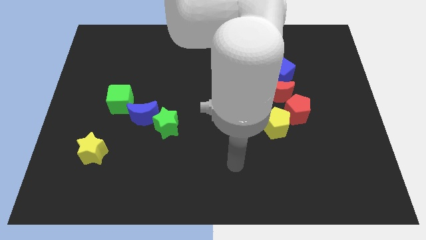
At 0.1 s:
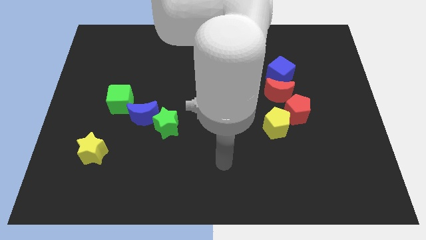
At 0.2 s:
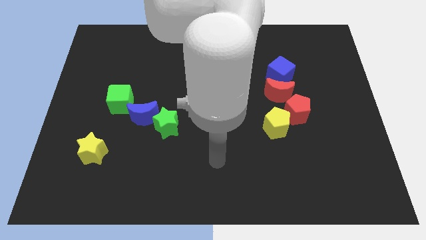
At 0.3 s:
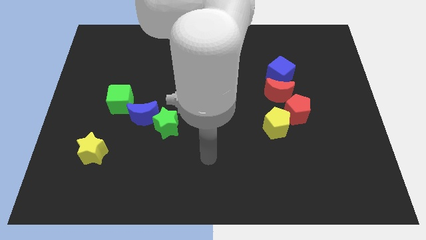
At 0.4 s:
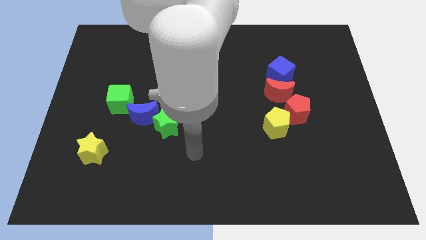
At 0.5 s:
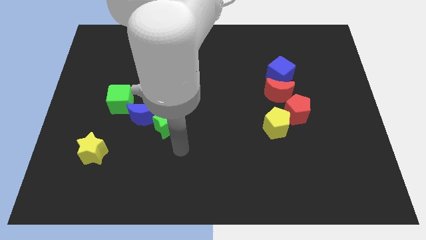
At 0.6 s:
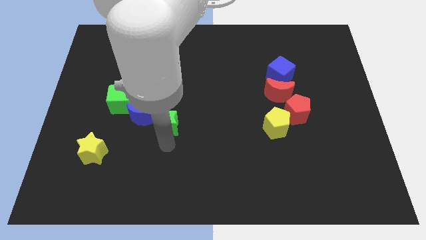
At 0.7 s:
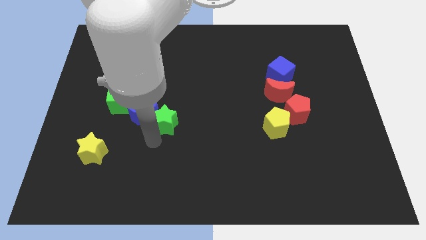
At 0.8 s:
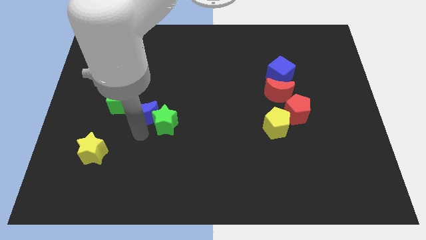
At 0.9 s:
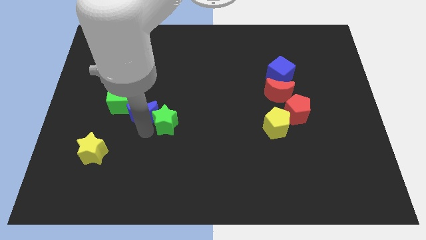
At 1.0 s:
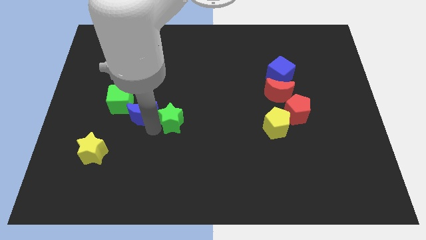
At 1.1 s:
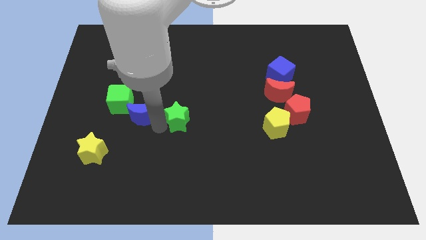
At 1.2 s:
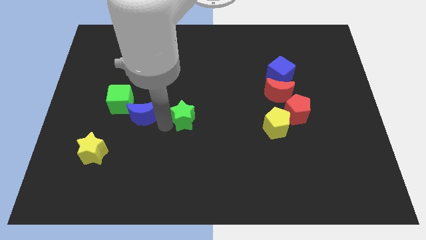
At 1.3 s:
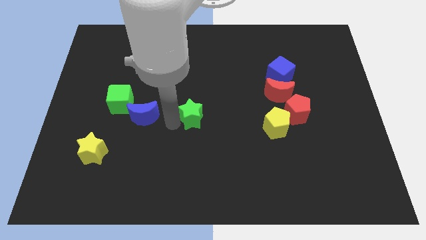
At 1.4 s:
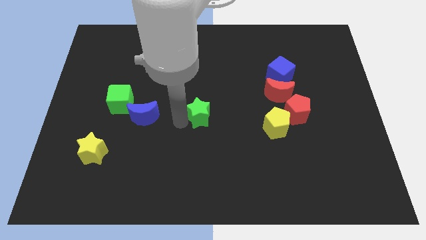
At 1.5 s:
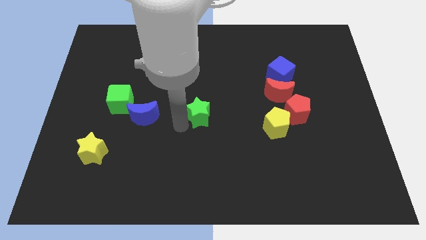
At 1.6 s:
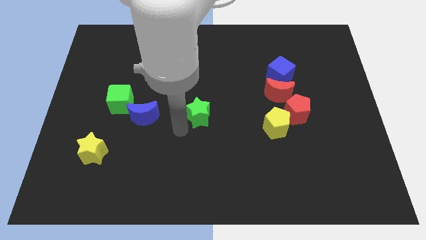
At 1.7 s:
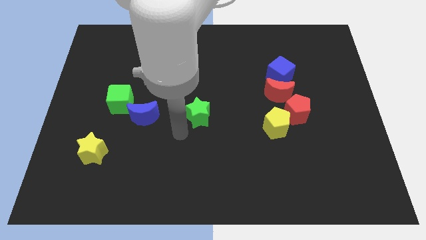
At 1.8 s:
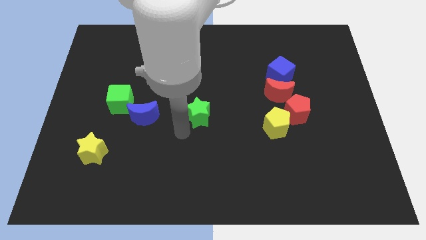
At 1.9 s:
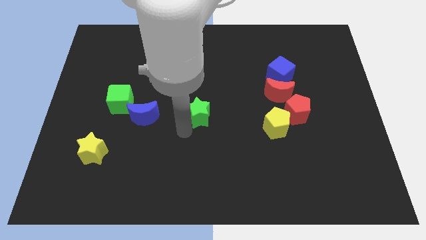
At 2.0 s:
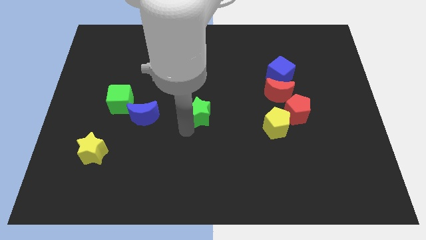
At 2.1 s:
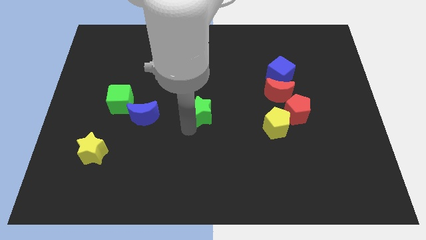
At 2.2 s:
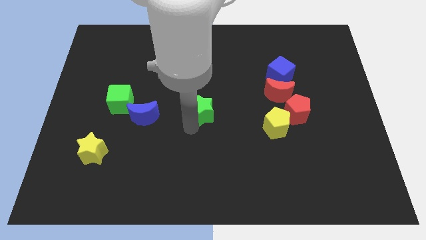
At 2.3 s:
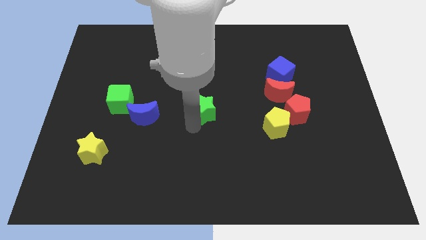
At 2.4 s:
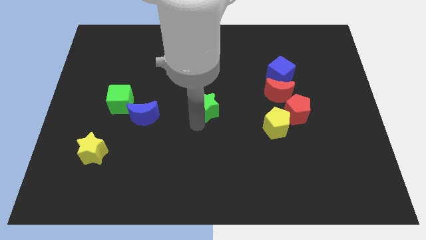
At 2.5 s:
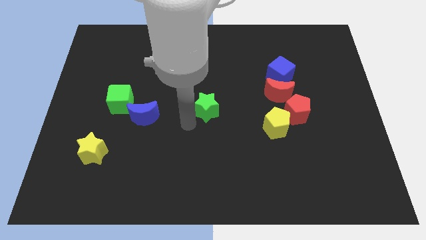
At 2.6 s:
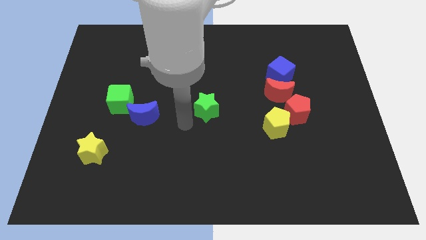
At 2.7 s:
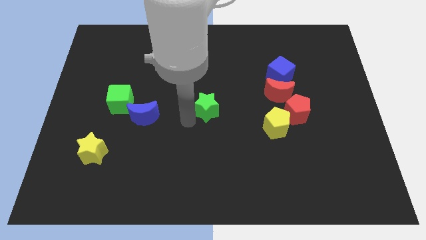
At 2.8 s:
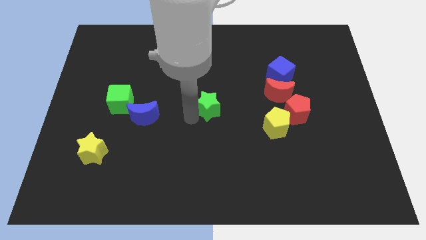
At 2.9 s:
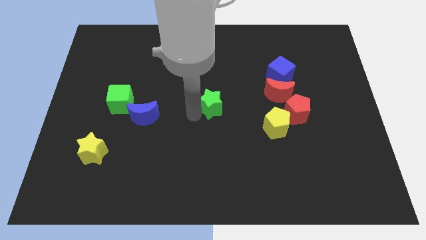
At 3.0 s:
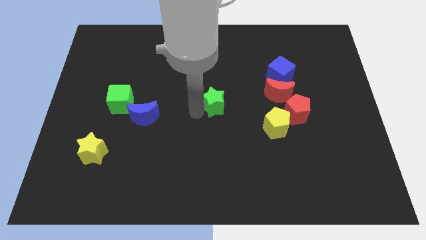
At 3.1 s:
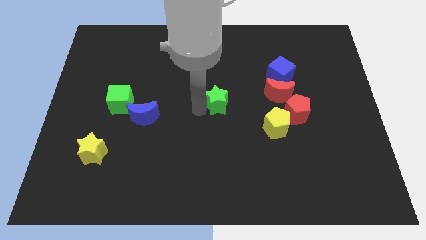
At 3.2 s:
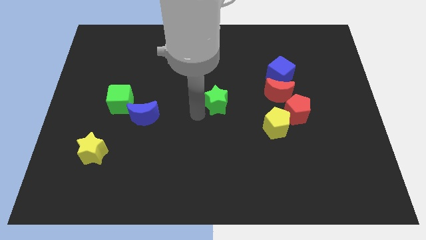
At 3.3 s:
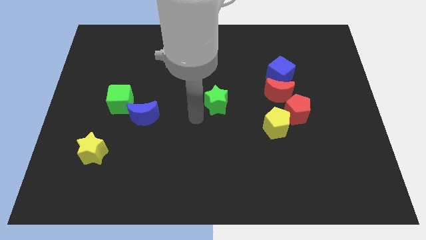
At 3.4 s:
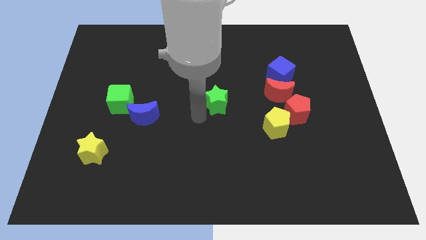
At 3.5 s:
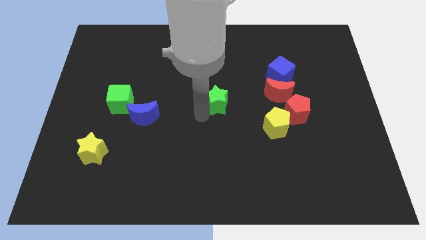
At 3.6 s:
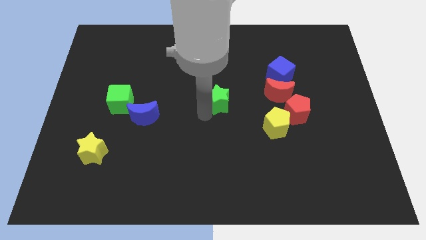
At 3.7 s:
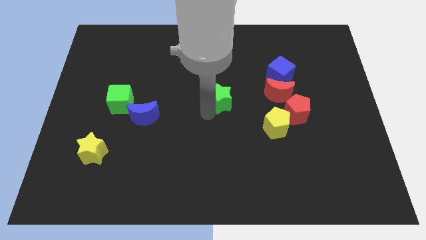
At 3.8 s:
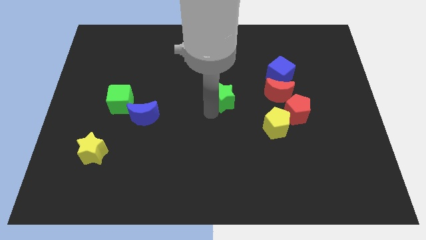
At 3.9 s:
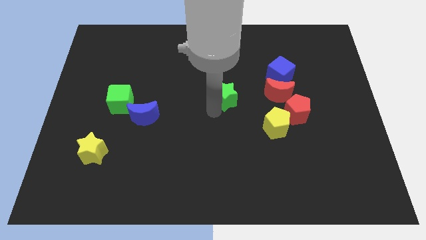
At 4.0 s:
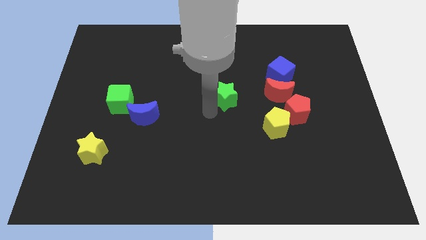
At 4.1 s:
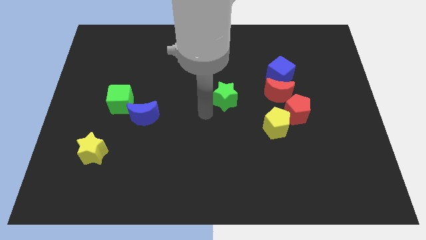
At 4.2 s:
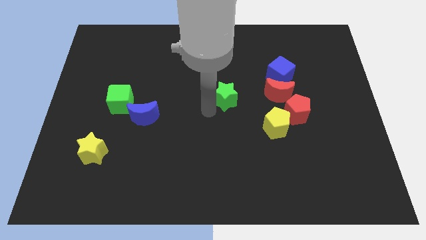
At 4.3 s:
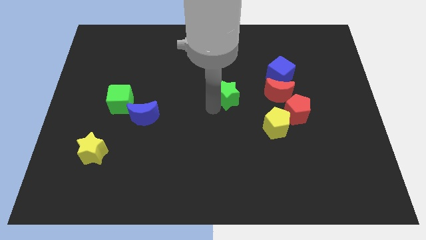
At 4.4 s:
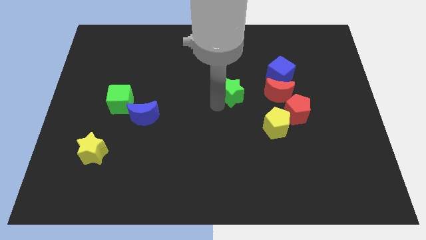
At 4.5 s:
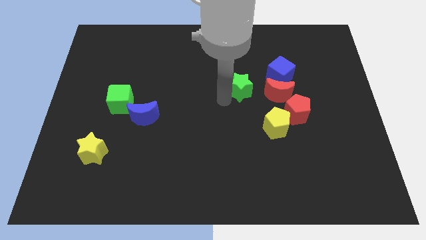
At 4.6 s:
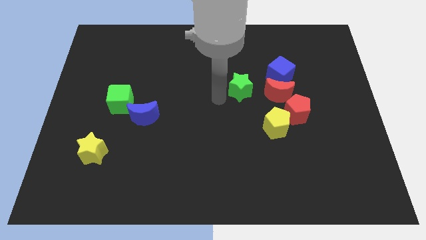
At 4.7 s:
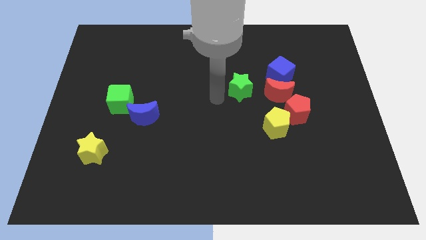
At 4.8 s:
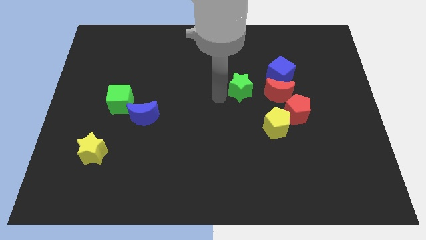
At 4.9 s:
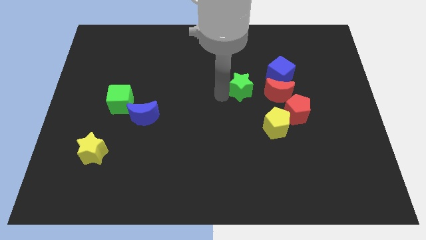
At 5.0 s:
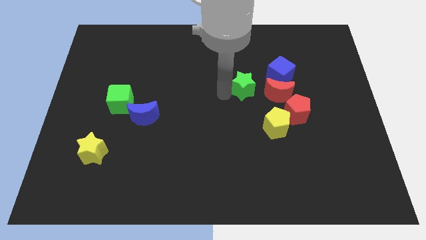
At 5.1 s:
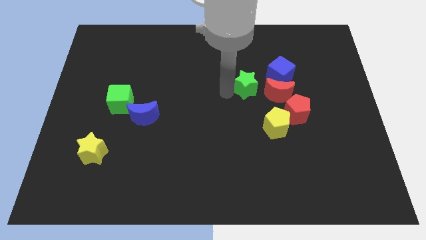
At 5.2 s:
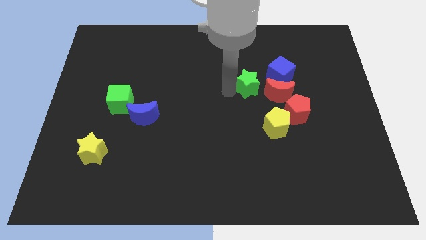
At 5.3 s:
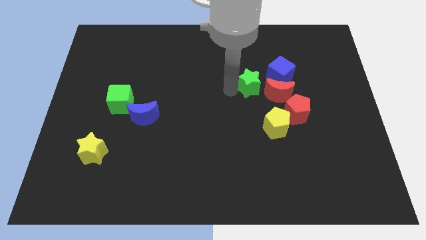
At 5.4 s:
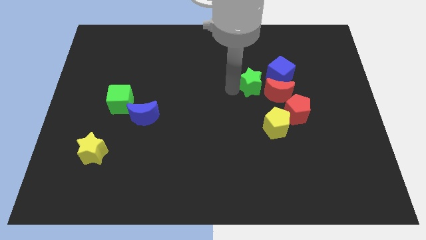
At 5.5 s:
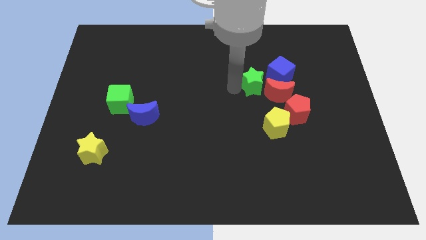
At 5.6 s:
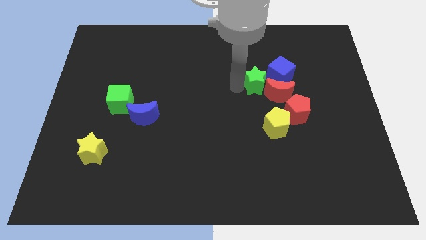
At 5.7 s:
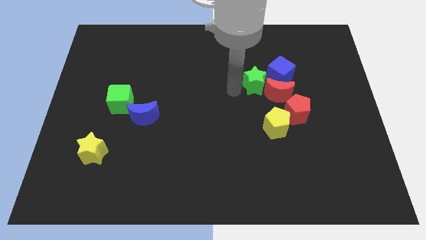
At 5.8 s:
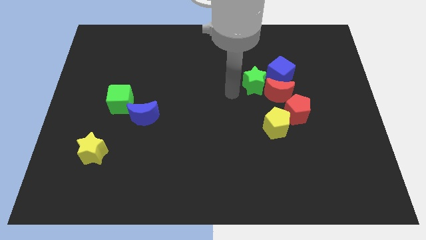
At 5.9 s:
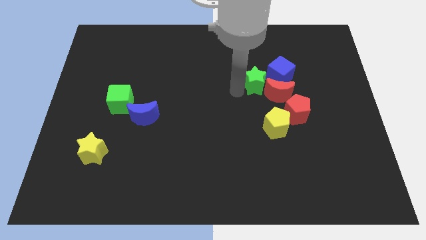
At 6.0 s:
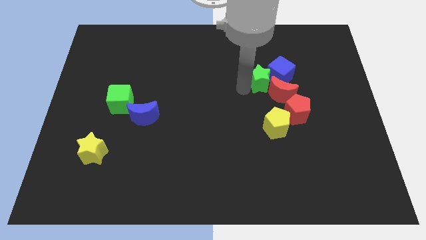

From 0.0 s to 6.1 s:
move the green star to the blue cube
